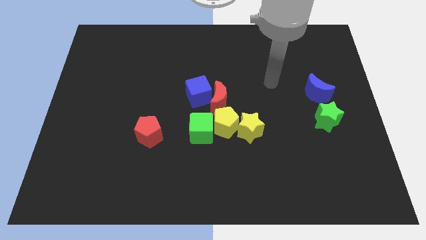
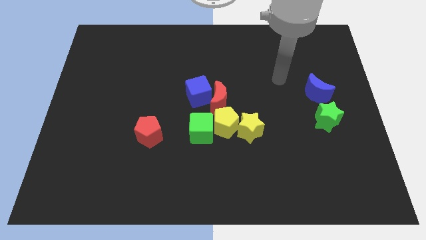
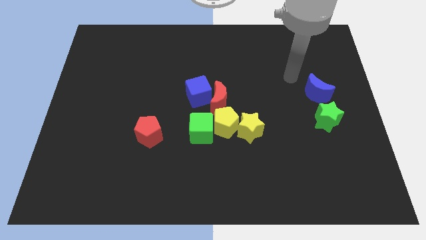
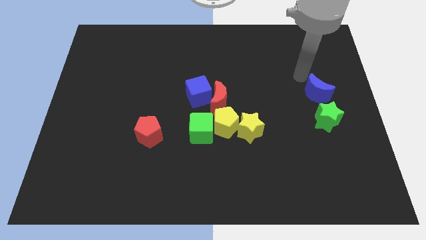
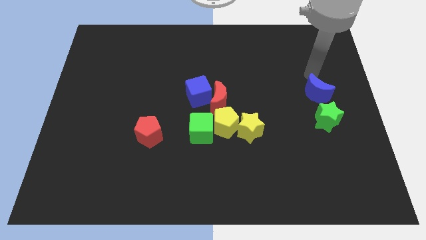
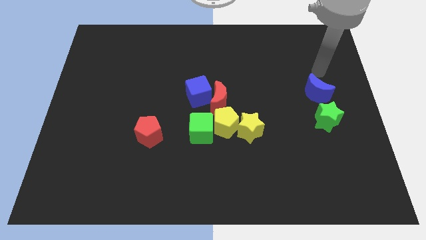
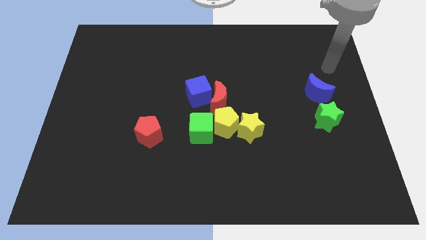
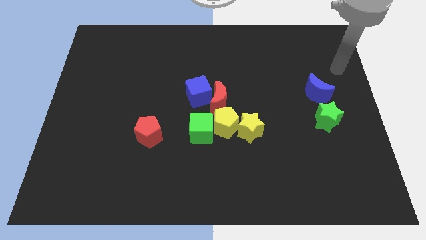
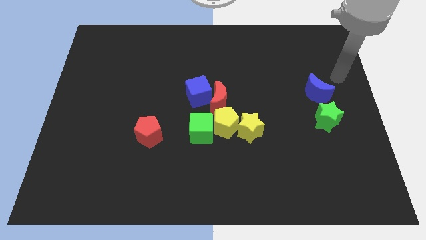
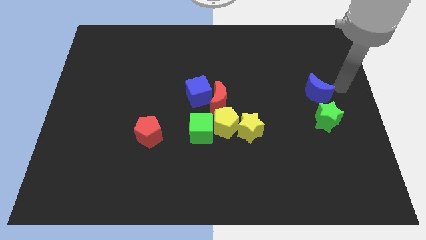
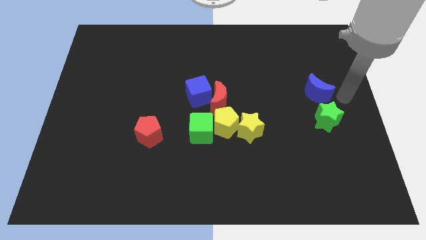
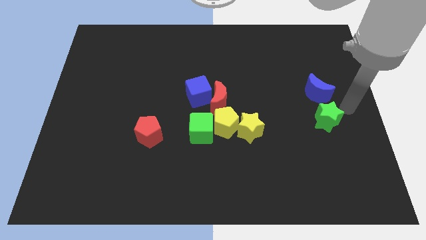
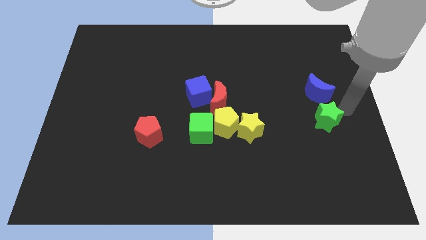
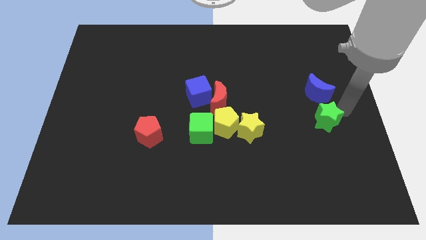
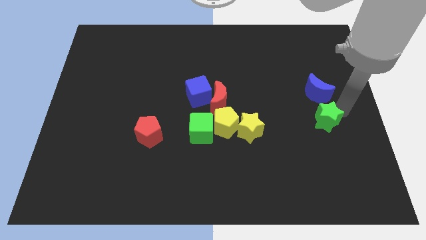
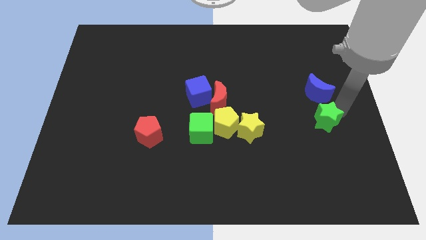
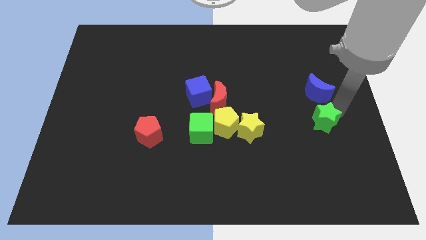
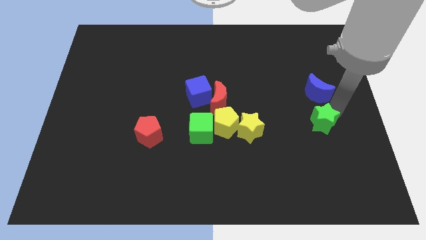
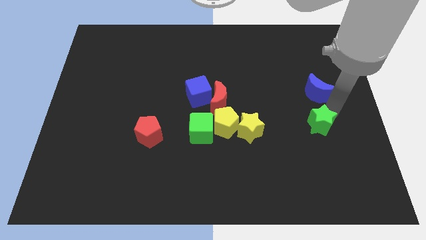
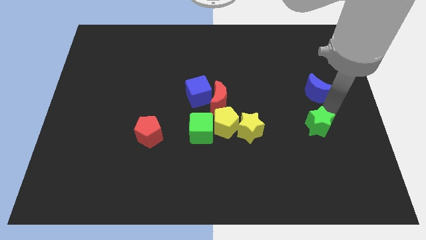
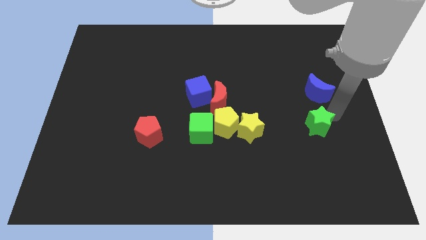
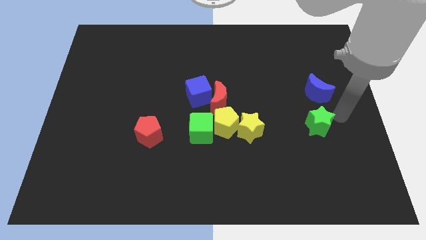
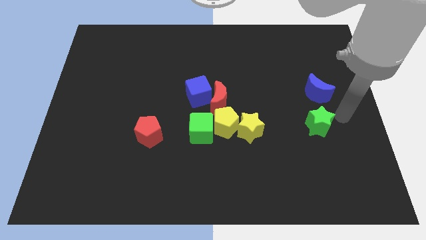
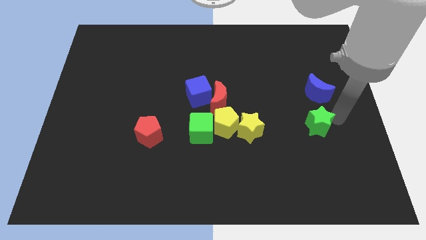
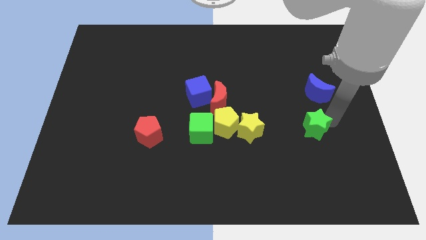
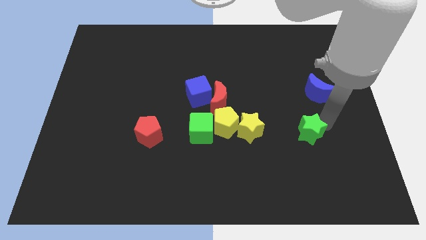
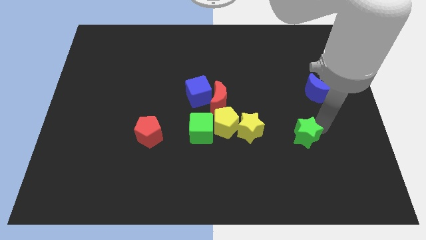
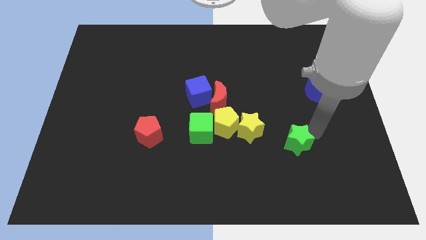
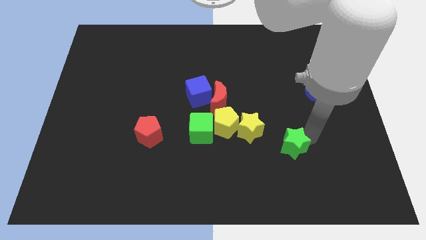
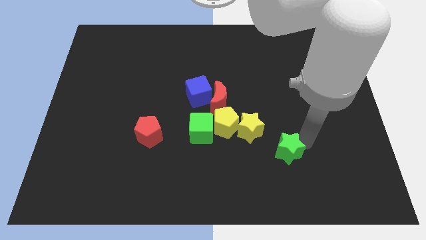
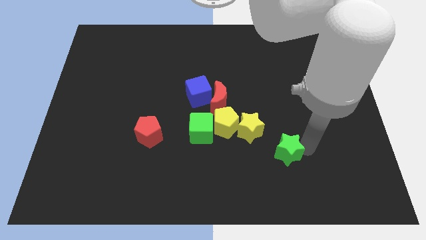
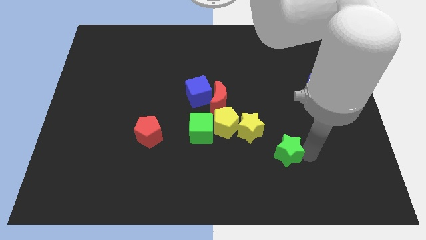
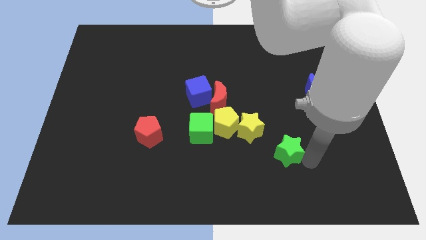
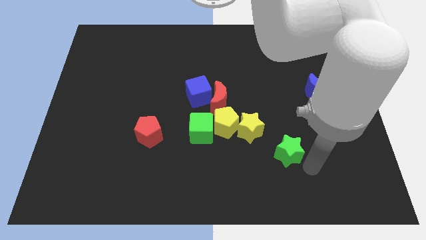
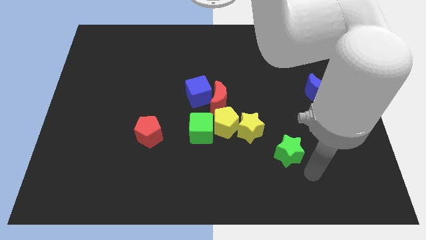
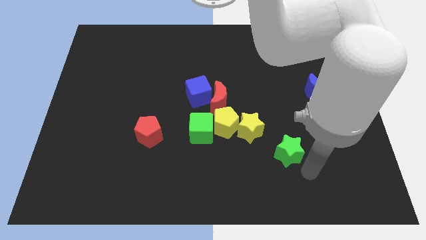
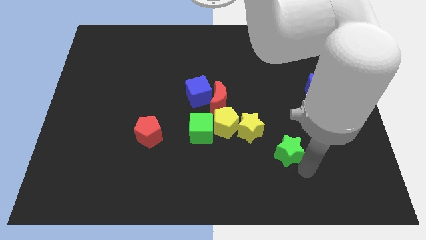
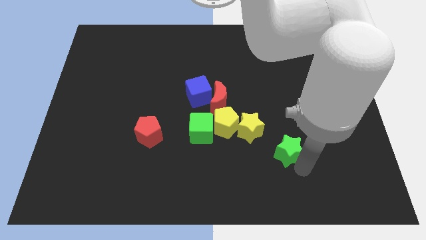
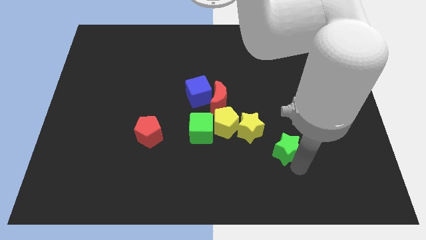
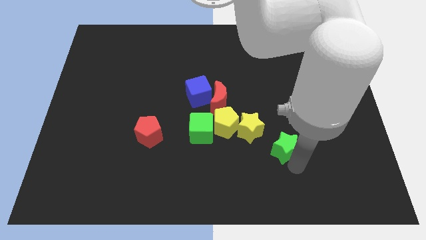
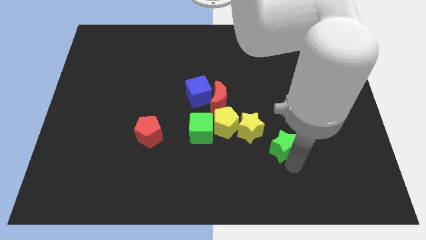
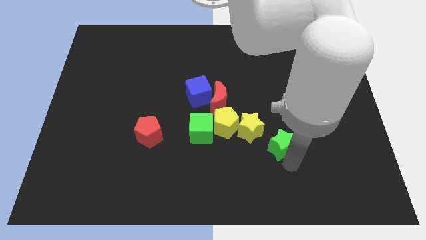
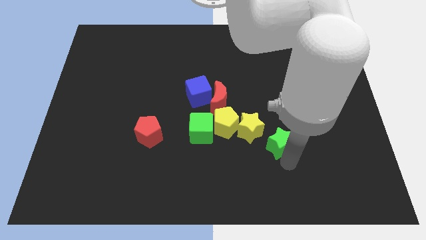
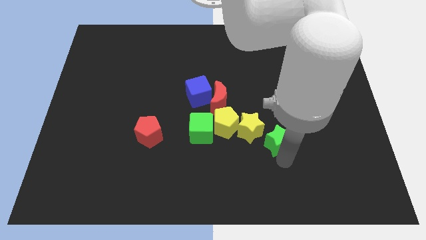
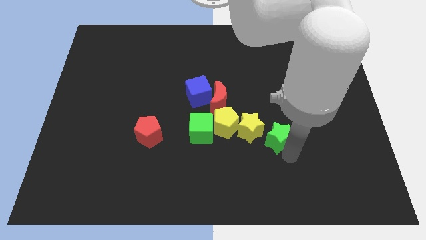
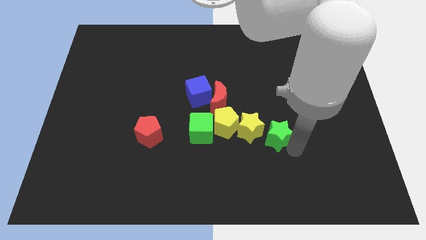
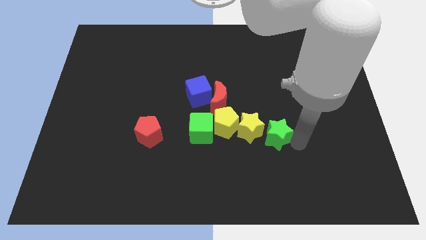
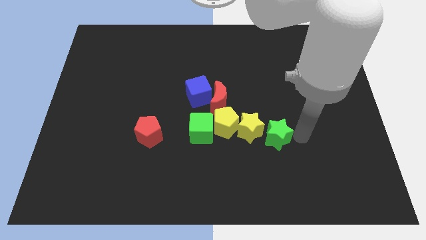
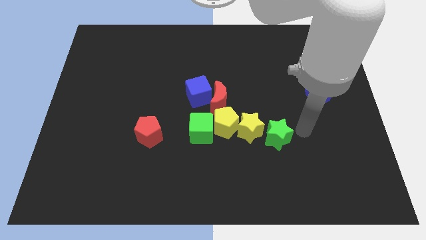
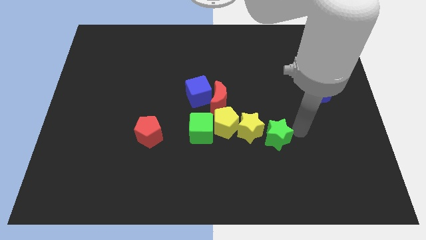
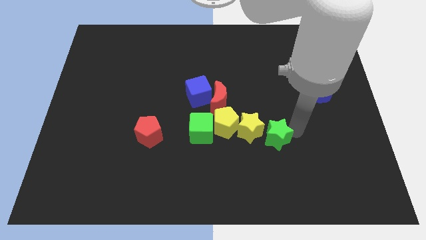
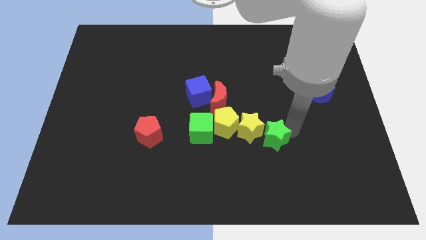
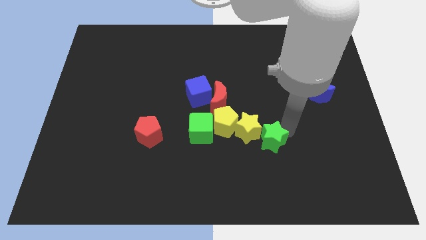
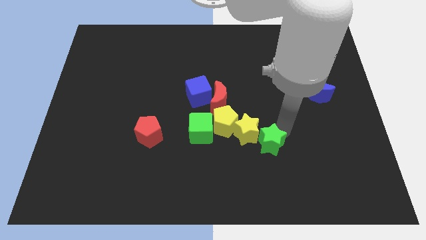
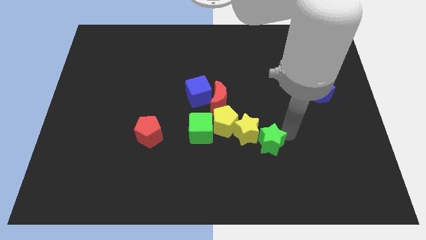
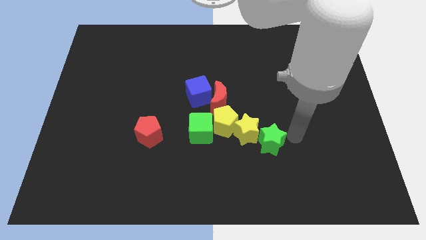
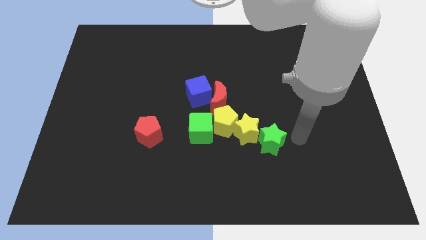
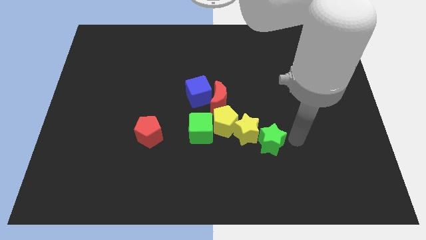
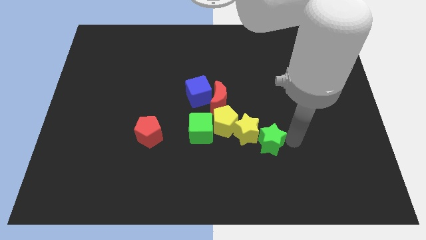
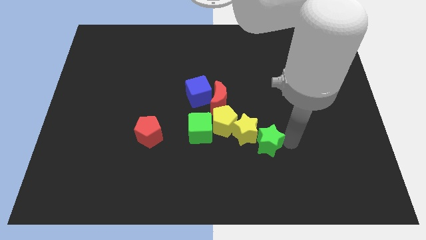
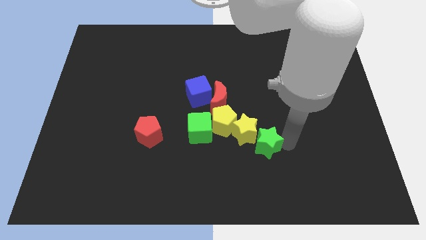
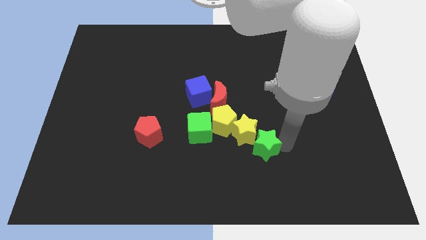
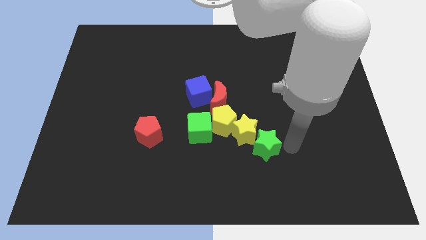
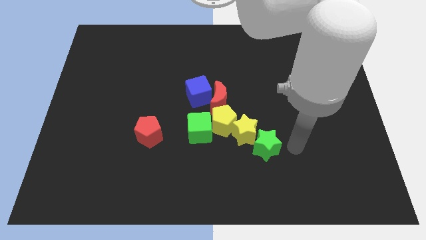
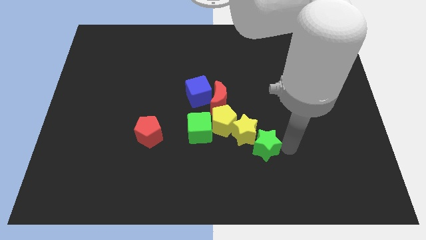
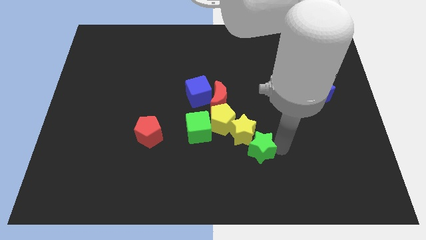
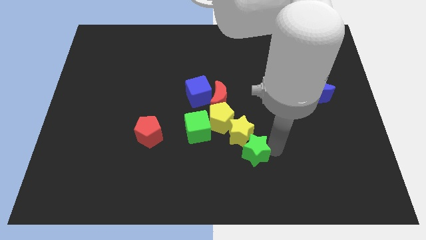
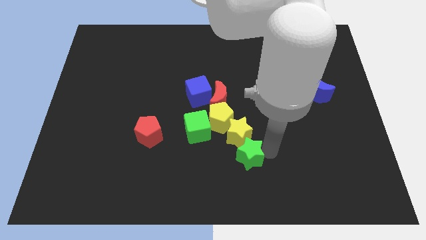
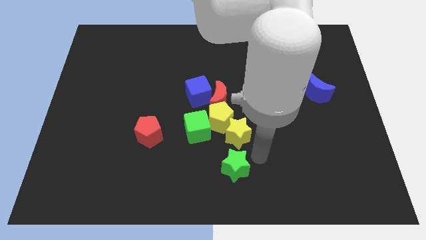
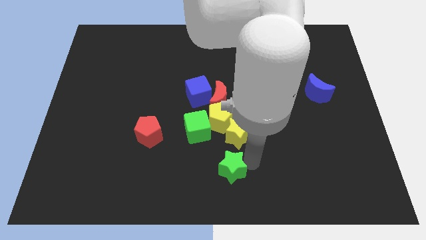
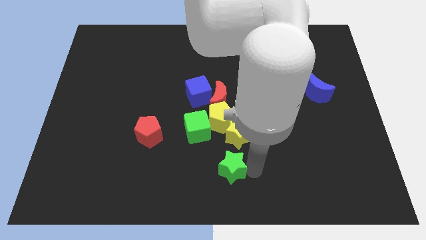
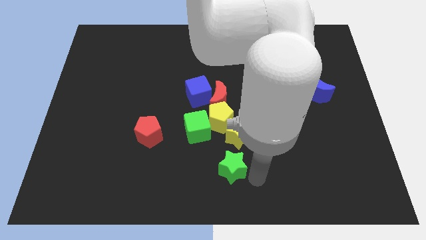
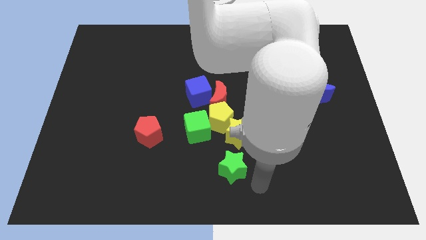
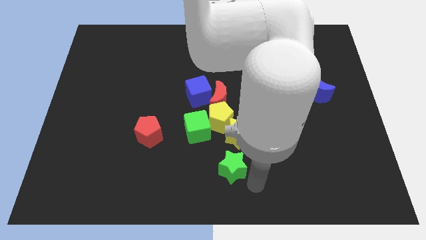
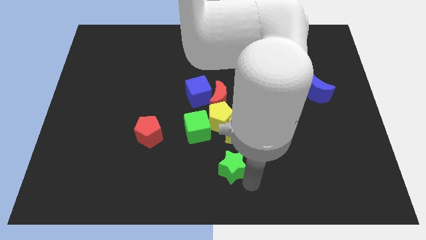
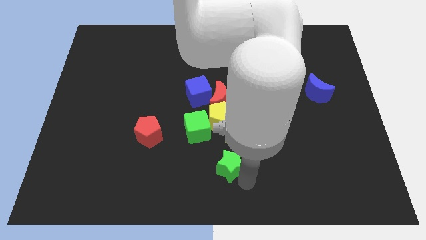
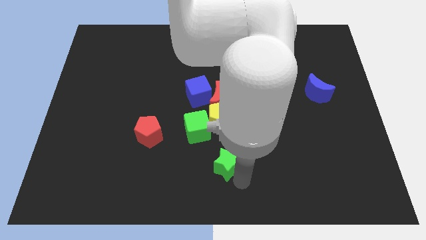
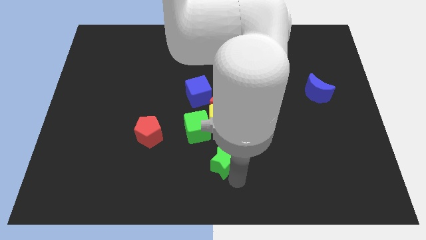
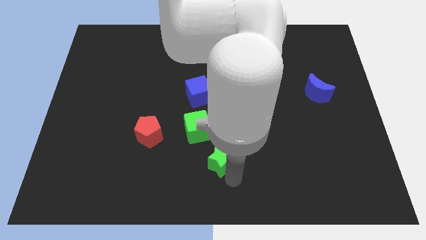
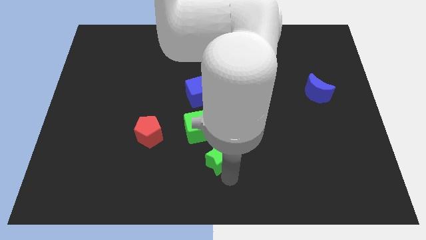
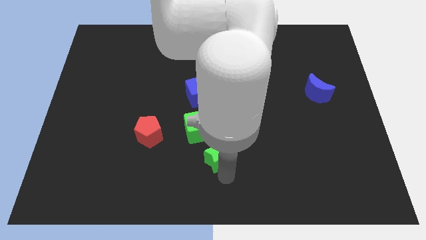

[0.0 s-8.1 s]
slide the green star left
